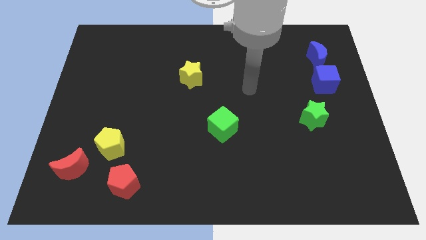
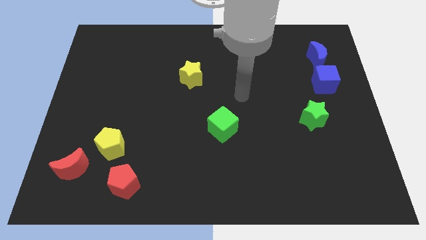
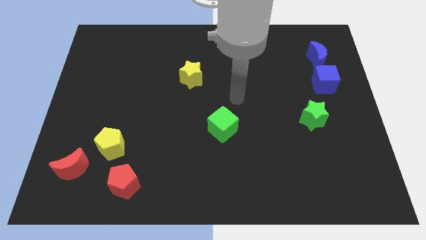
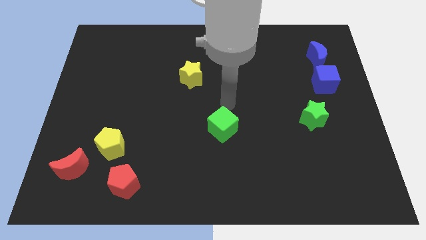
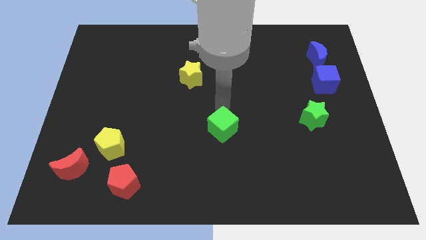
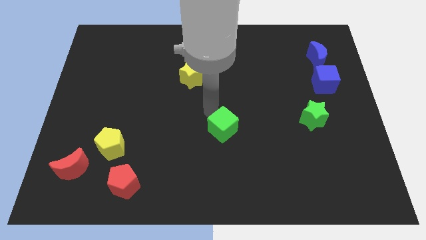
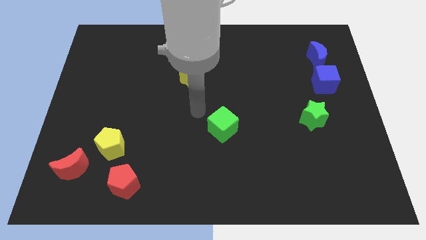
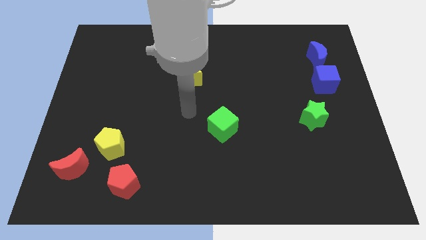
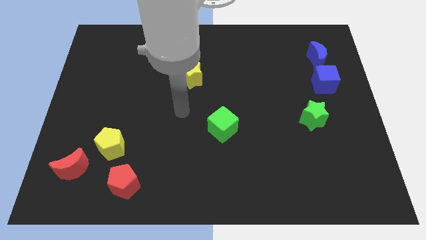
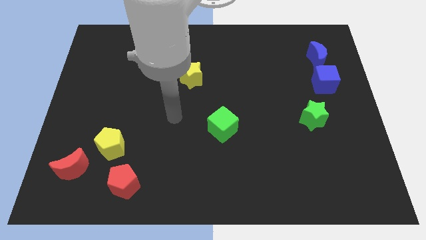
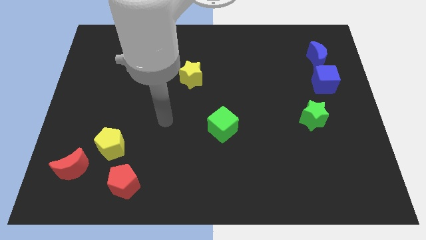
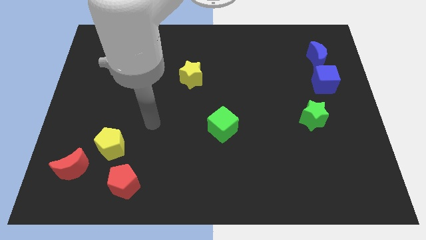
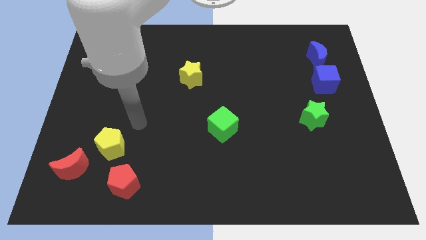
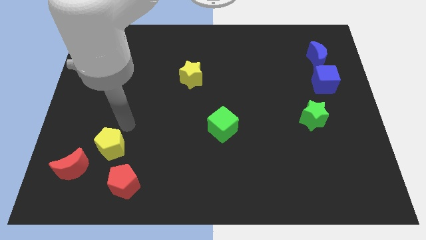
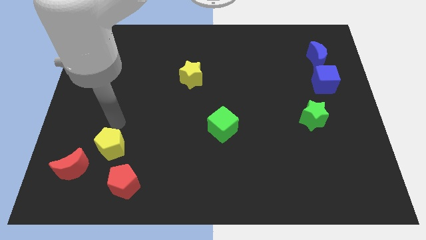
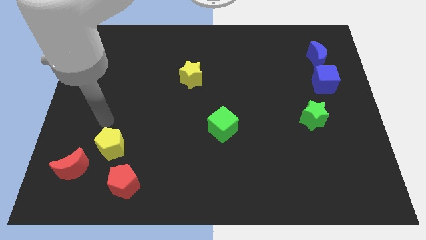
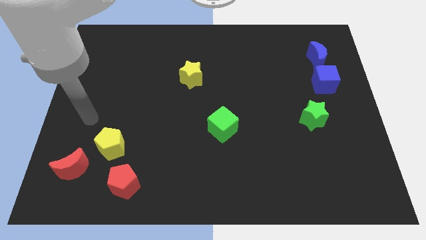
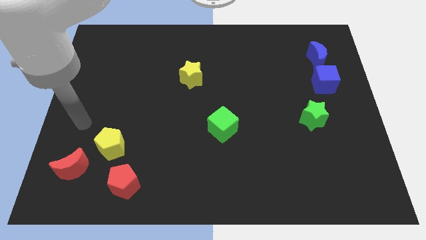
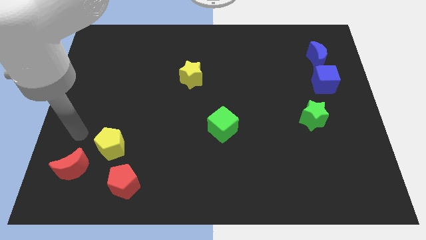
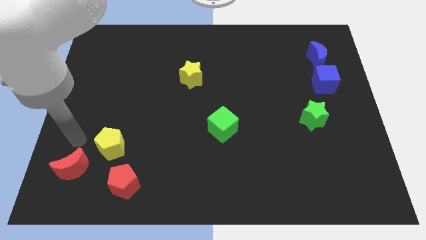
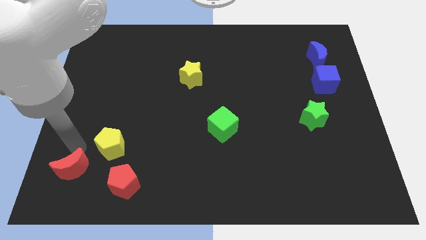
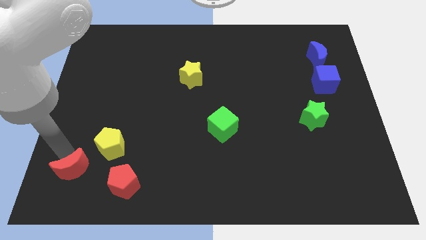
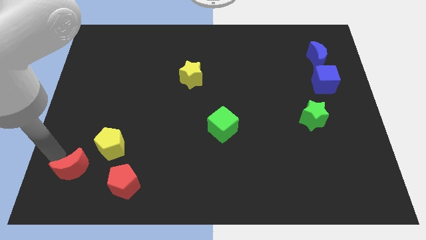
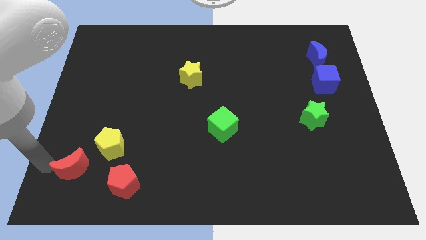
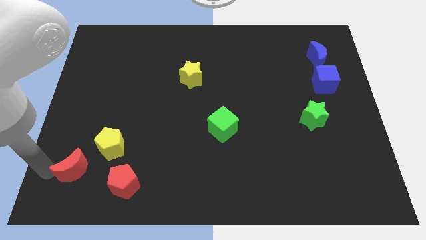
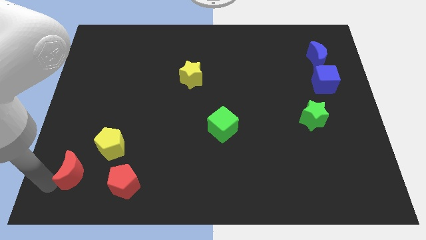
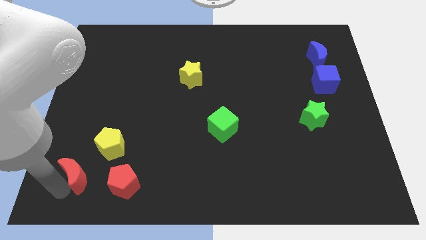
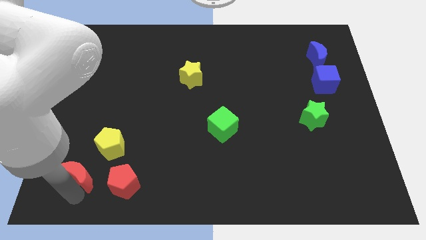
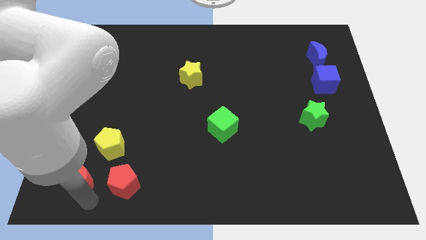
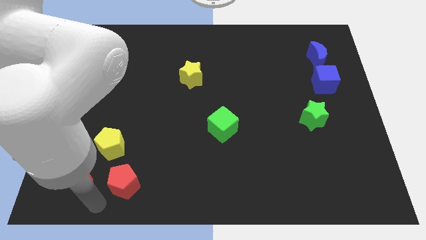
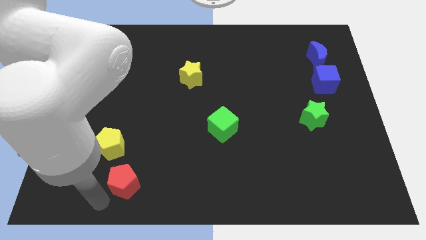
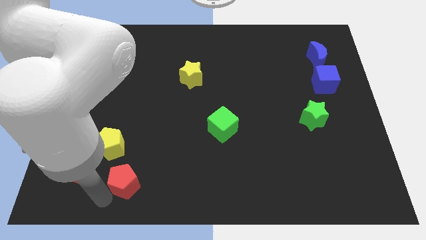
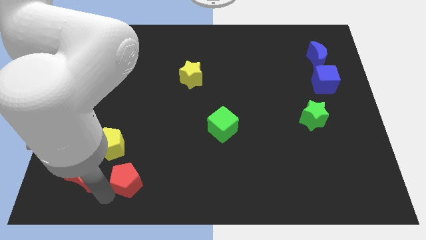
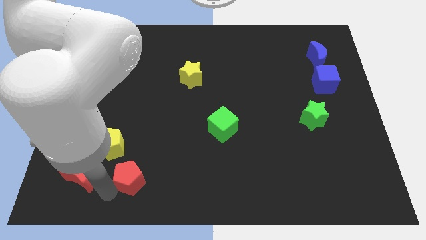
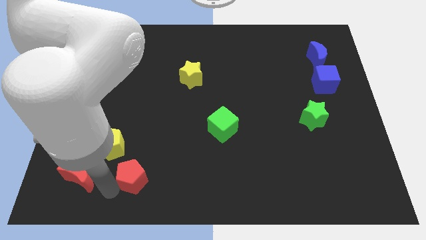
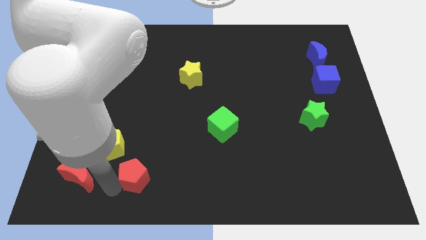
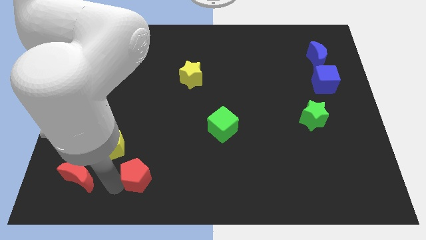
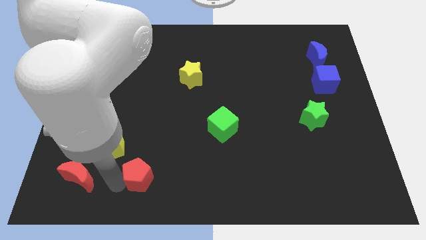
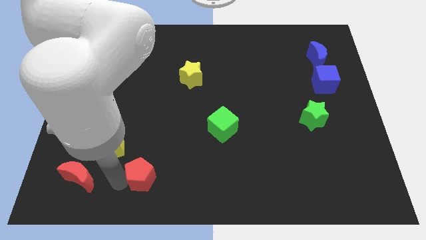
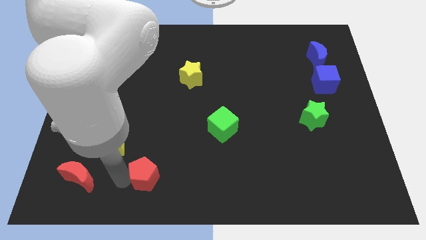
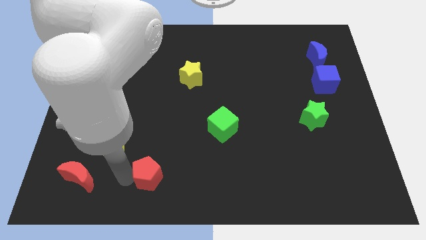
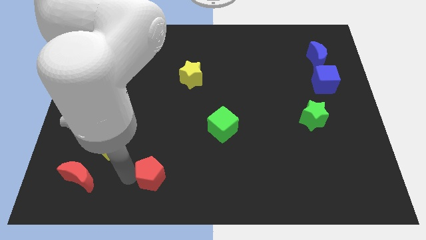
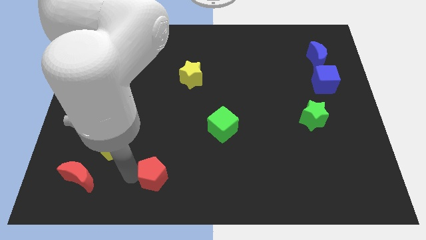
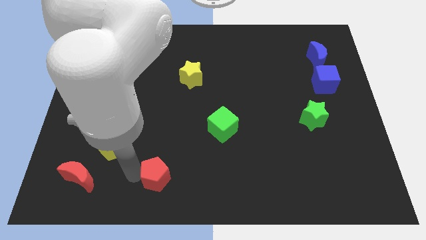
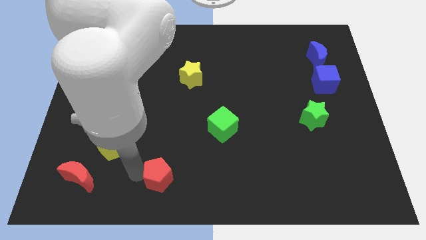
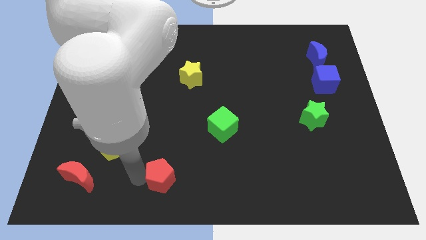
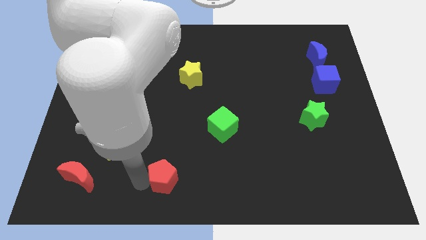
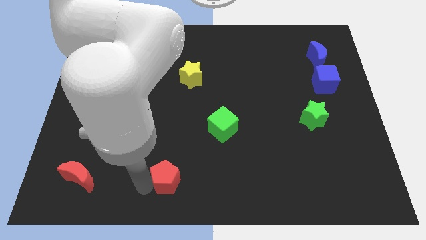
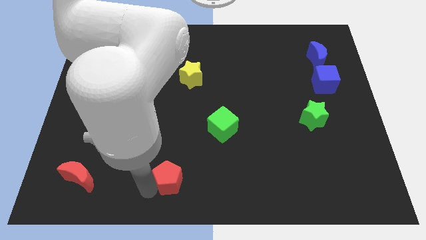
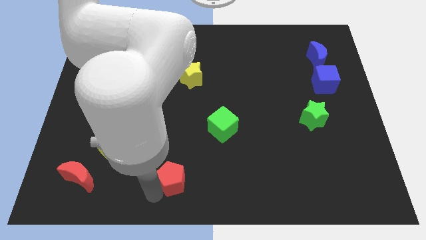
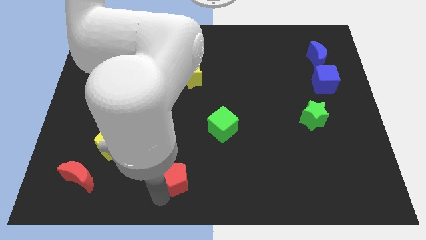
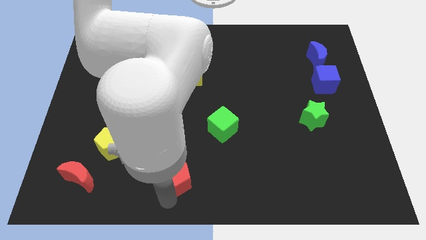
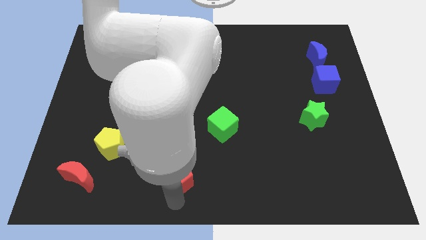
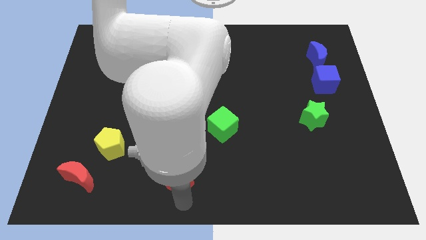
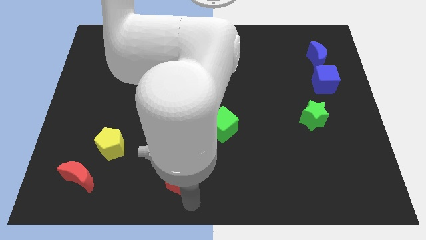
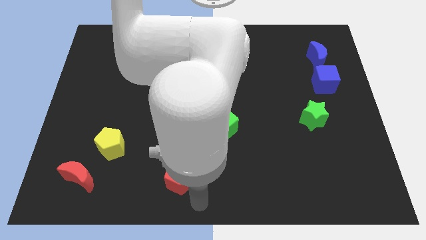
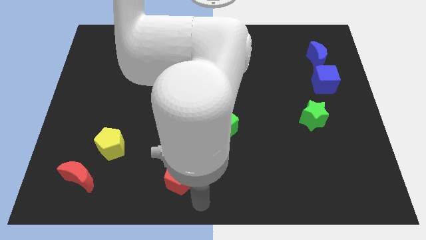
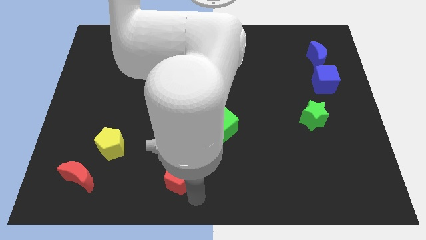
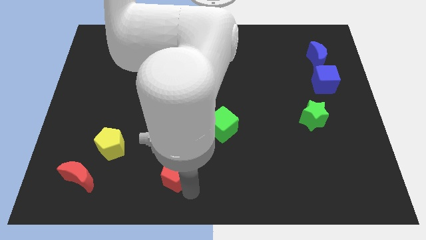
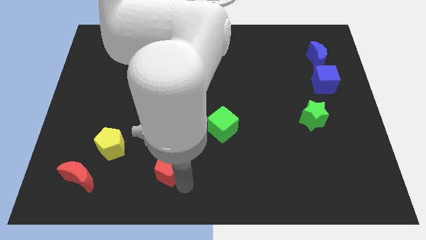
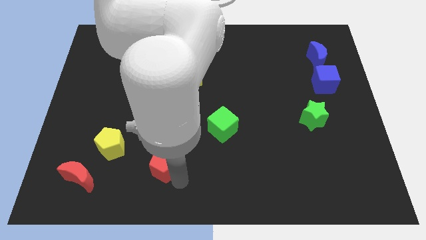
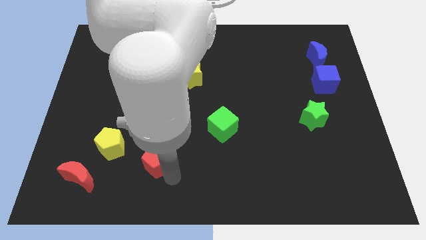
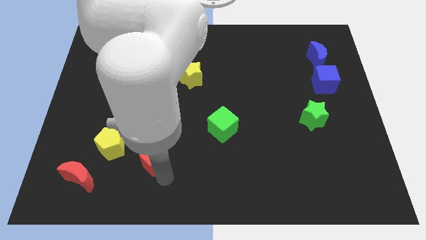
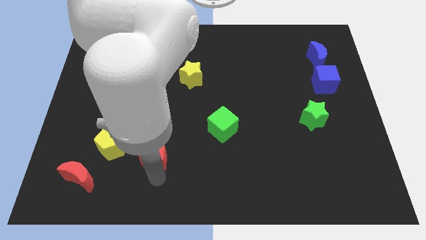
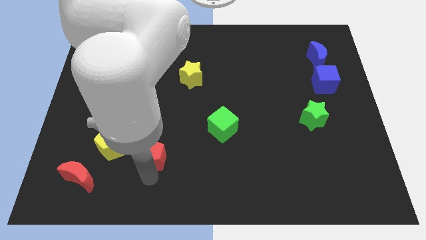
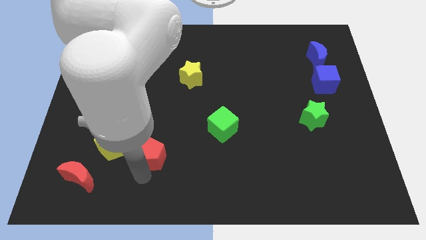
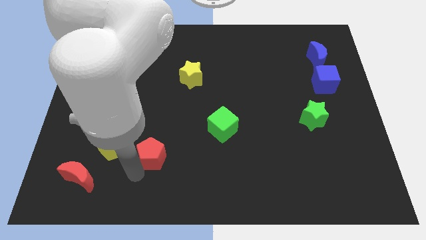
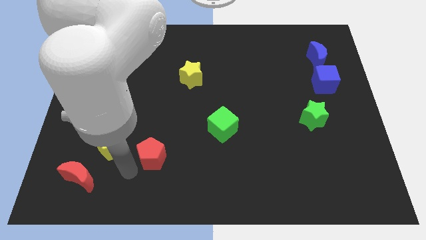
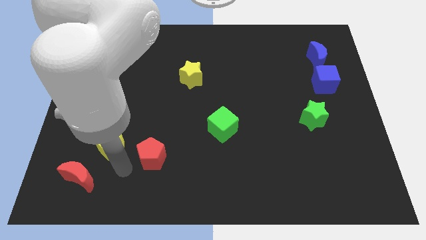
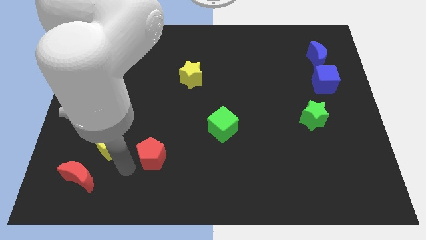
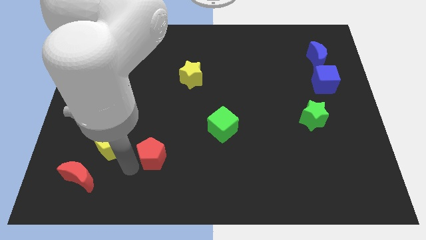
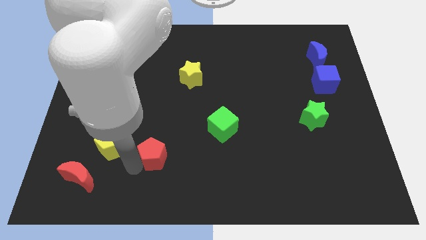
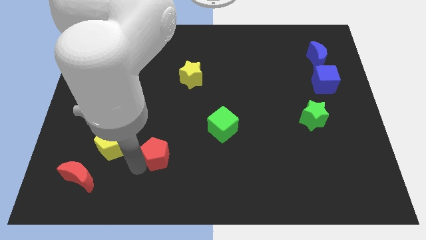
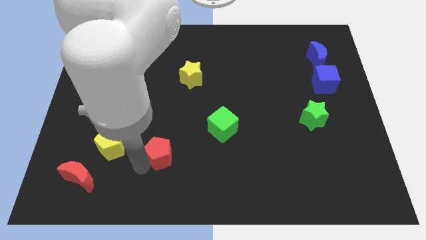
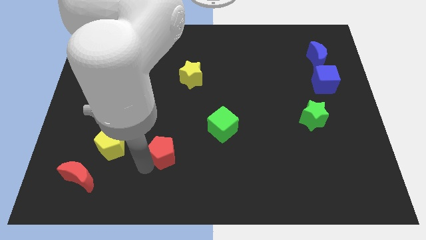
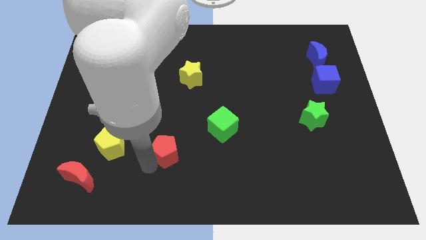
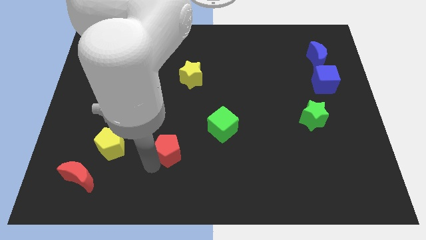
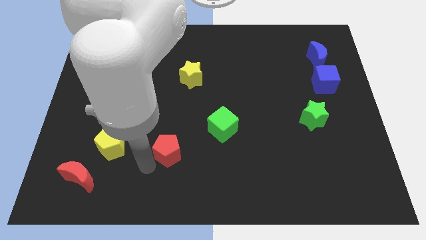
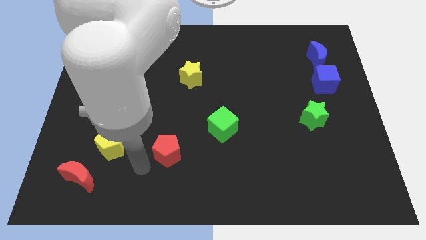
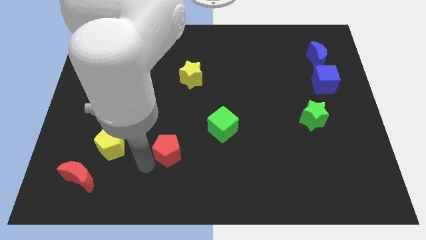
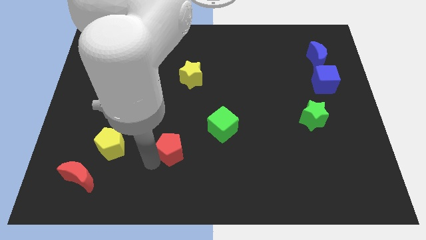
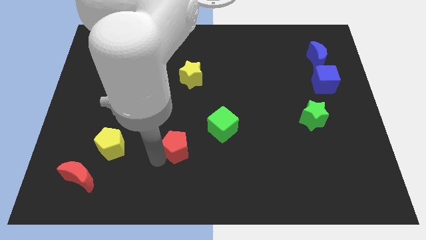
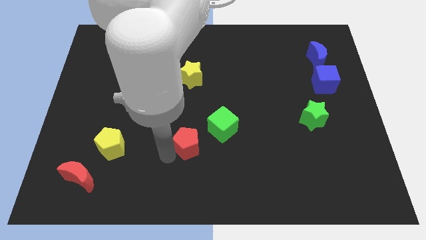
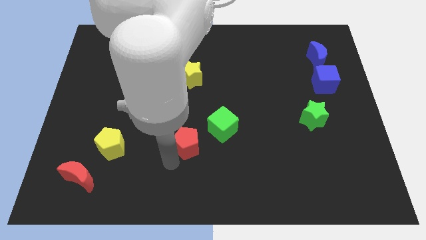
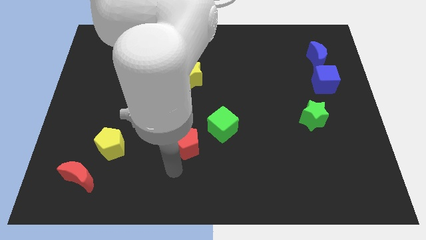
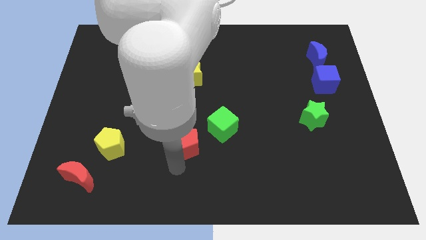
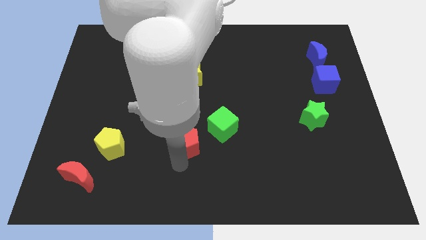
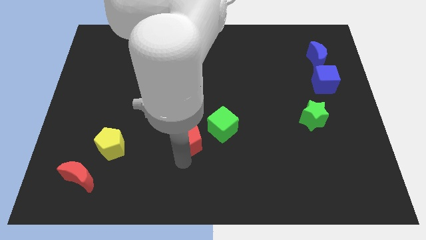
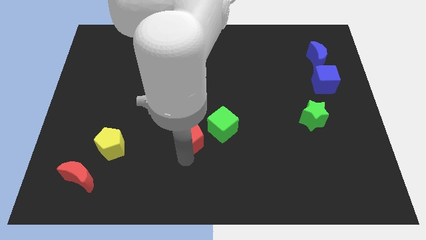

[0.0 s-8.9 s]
push the red pentagon to the center of the board
